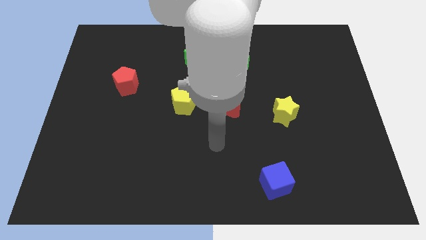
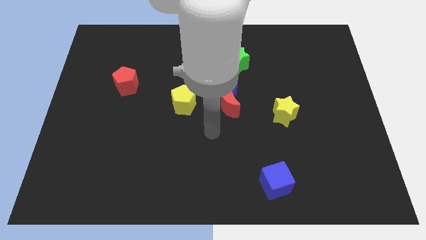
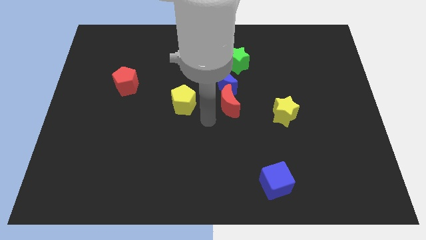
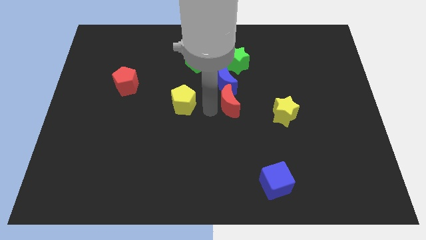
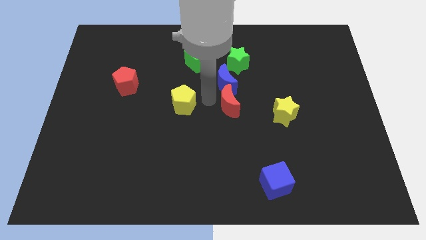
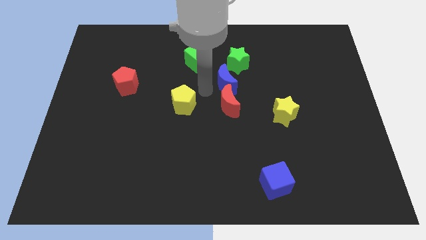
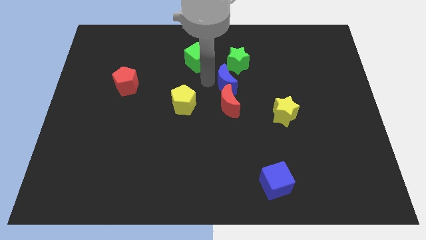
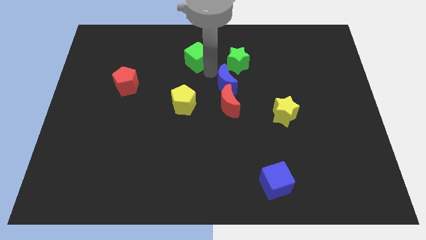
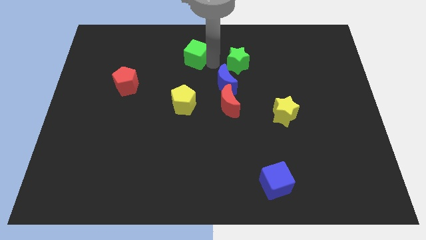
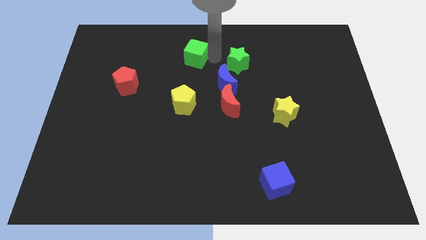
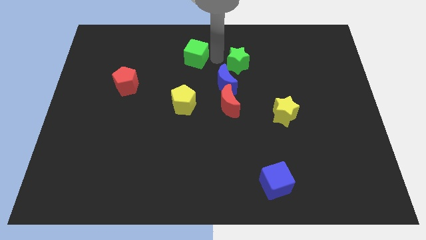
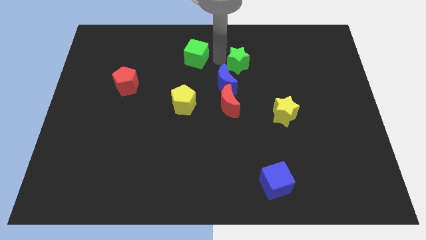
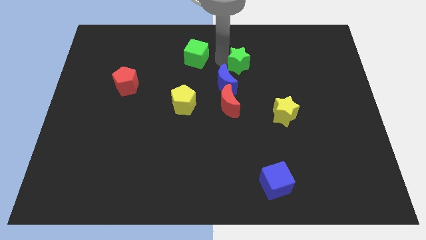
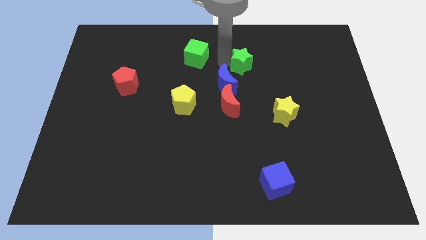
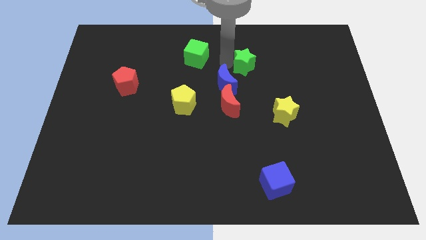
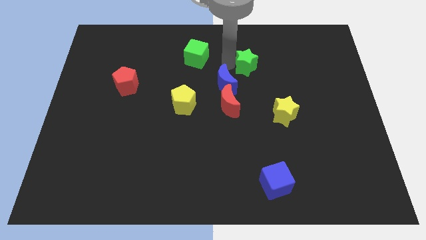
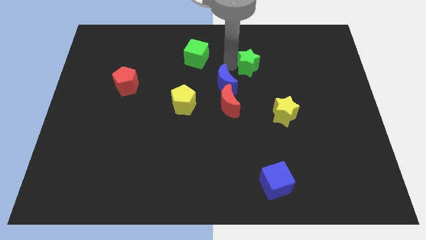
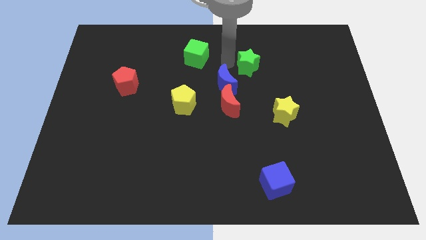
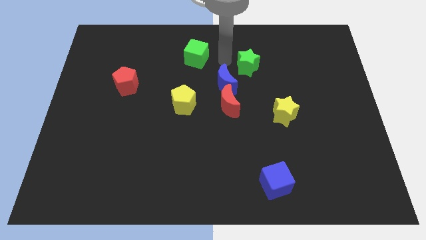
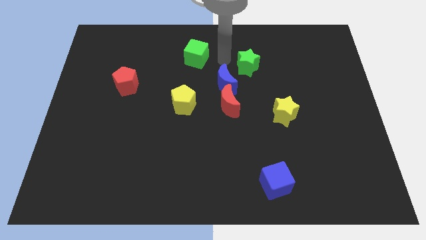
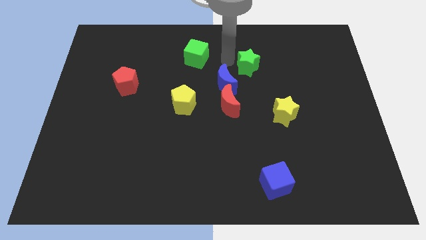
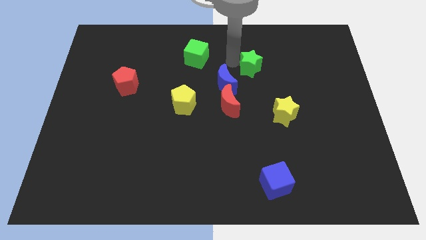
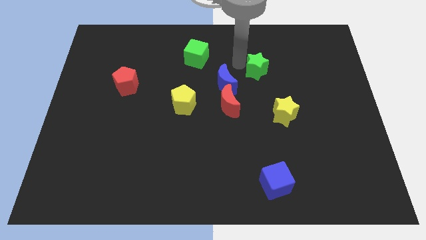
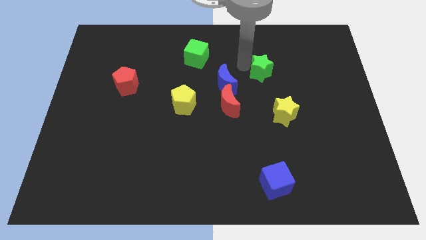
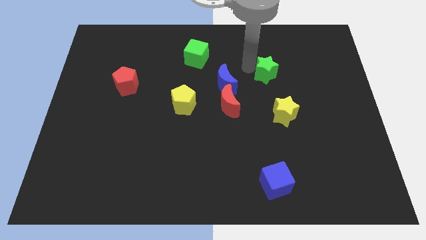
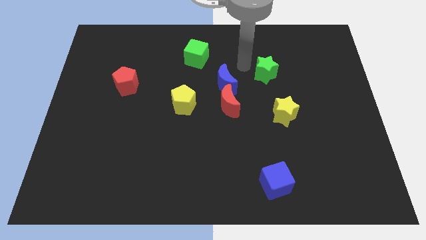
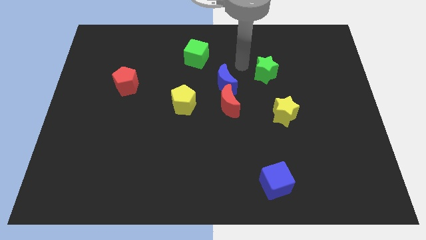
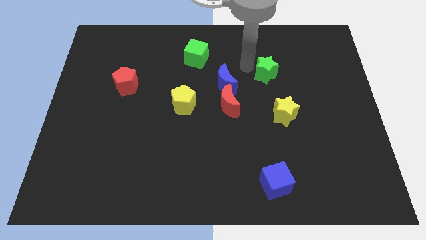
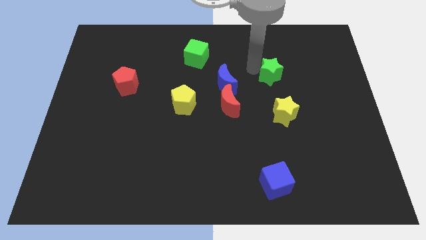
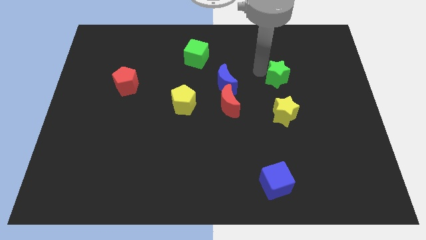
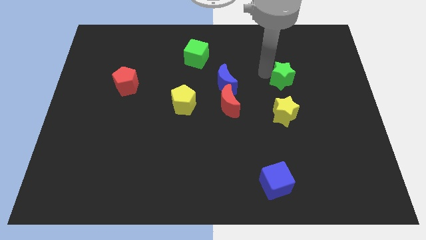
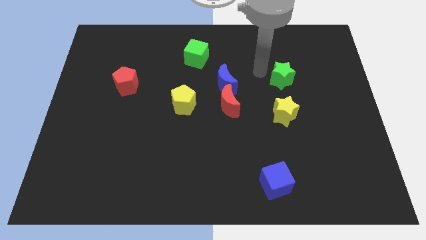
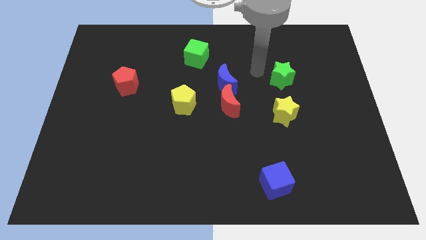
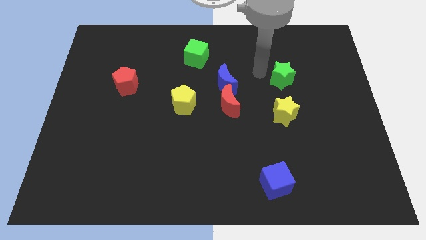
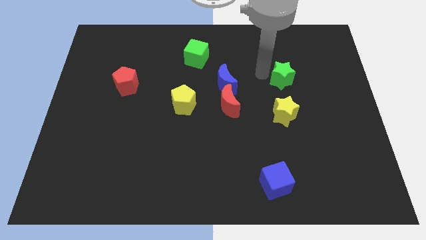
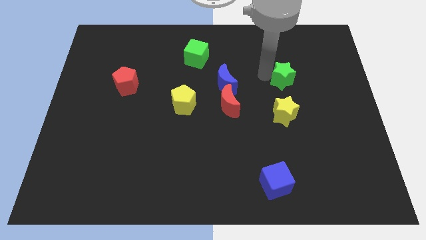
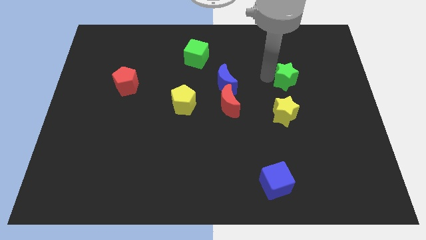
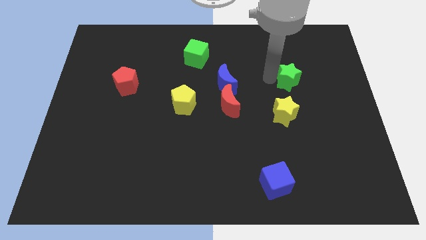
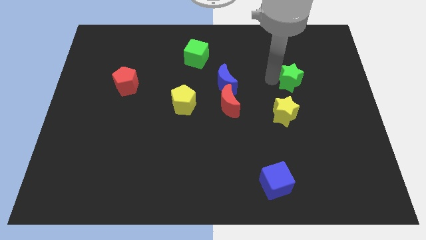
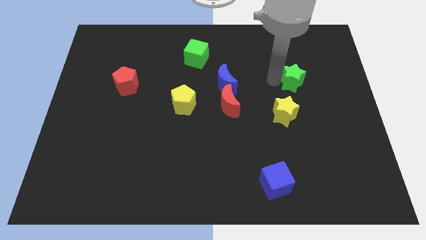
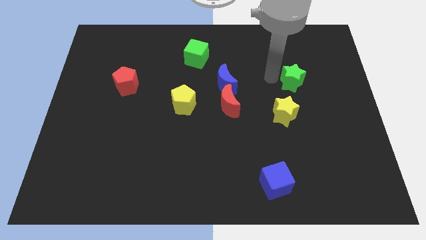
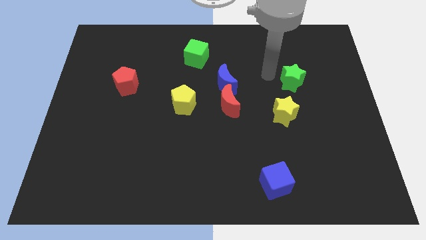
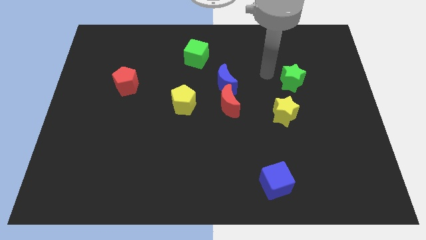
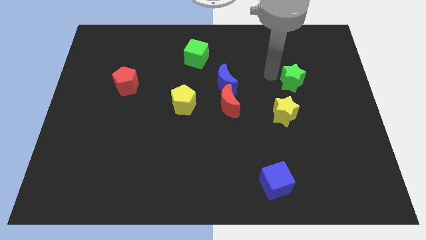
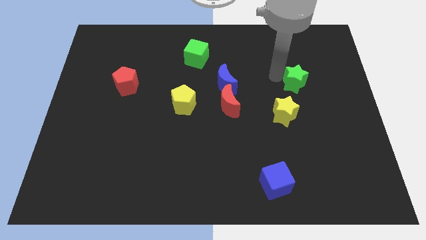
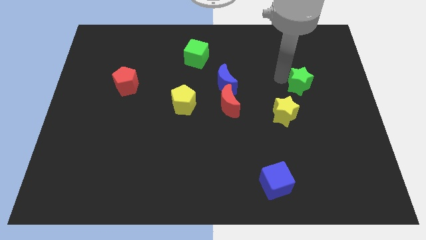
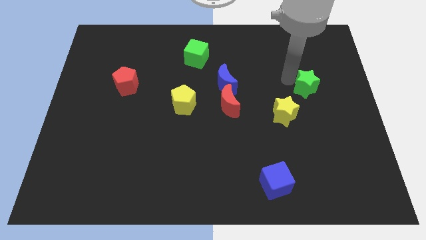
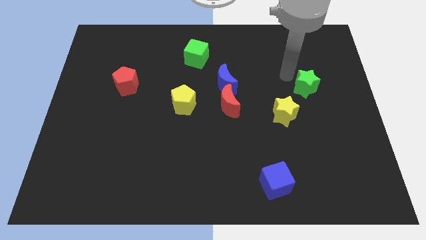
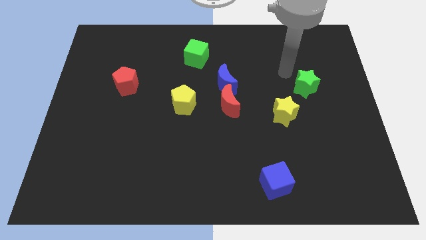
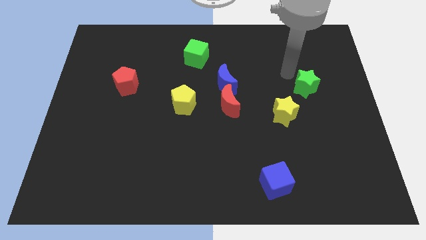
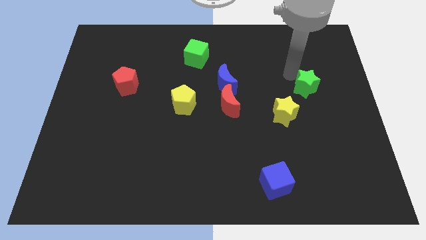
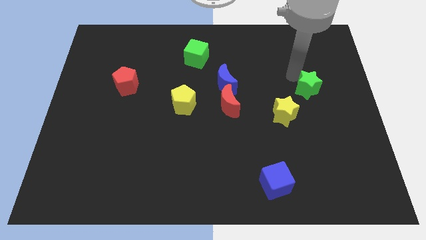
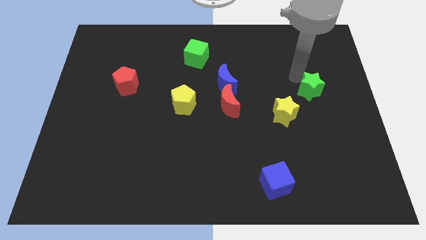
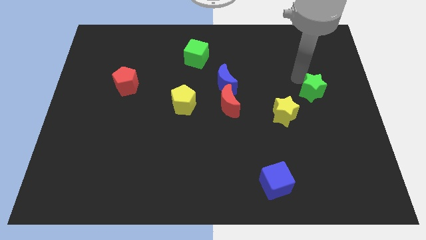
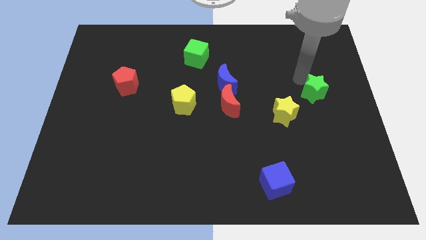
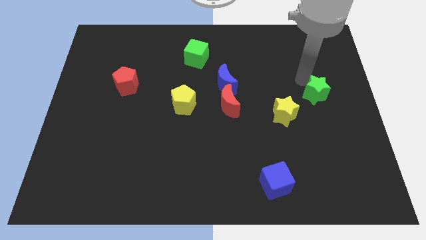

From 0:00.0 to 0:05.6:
slide the green star to the right side

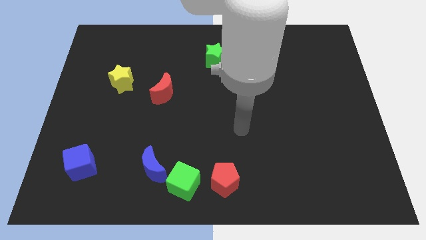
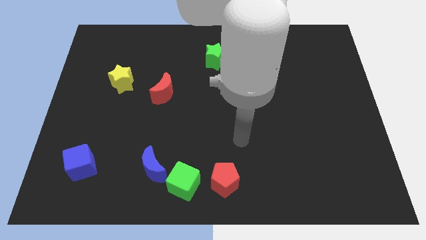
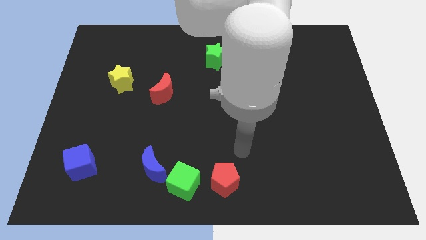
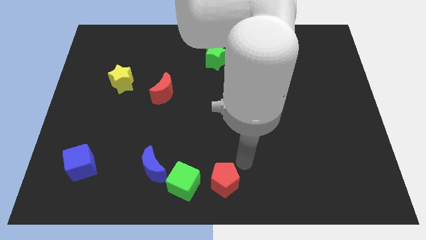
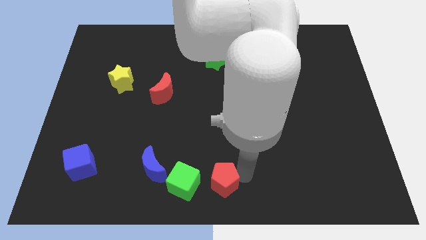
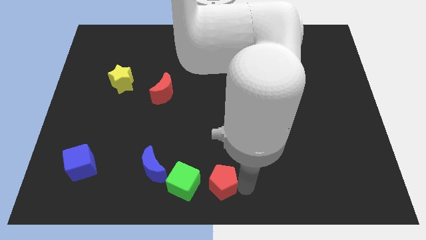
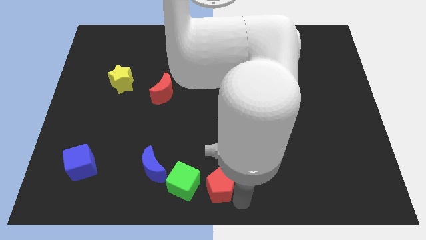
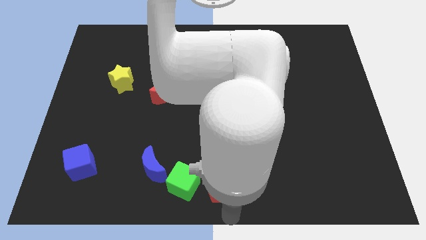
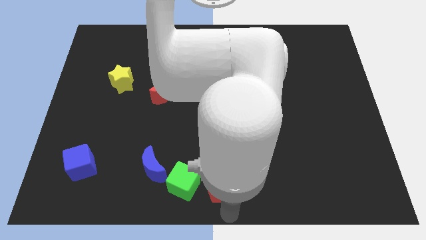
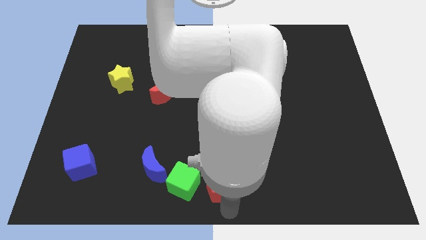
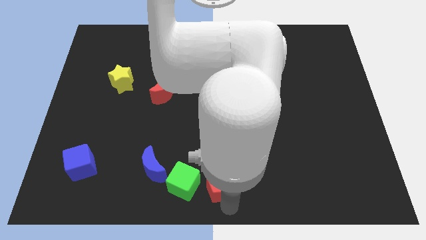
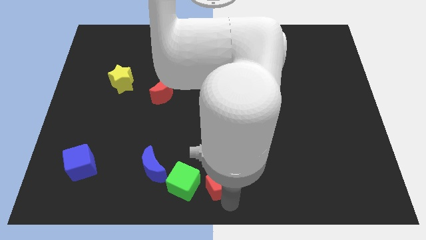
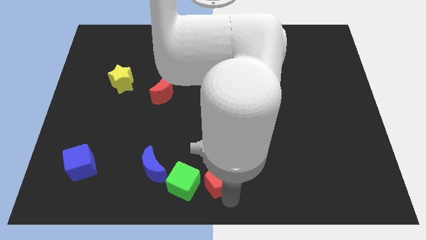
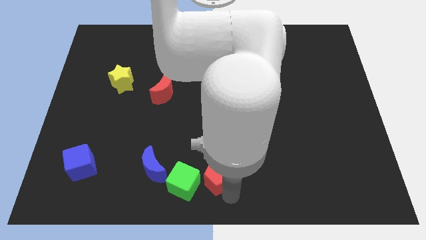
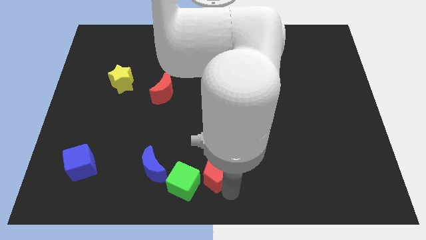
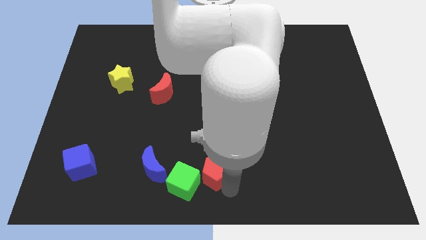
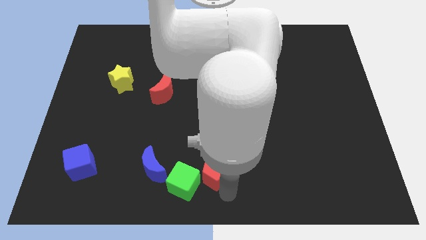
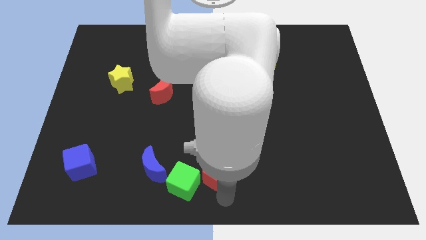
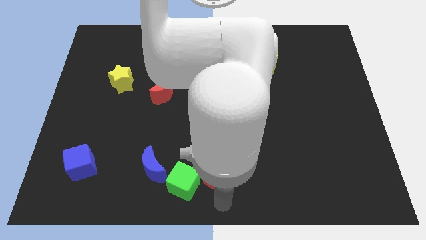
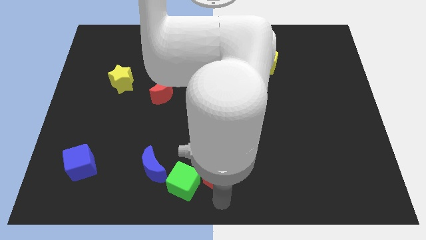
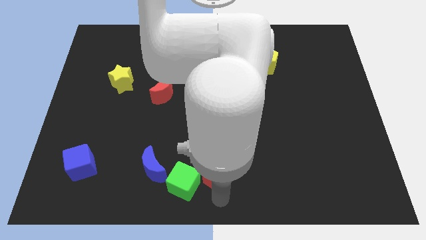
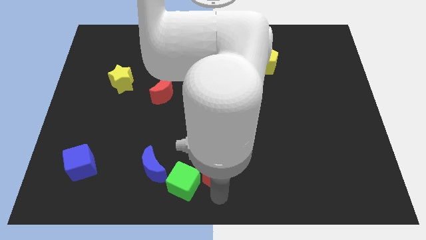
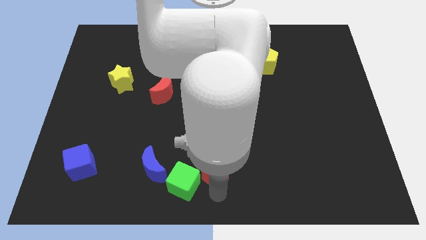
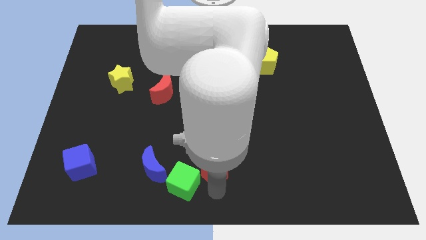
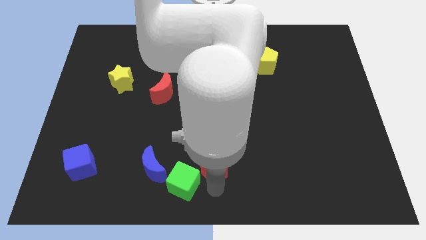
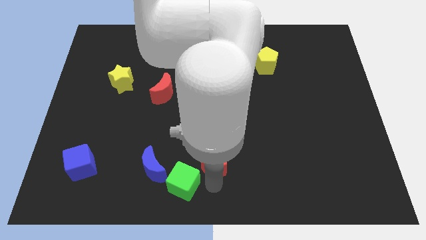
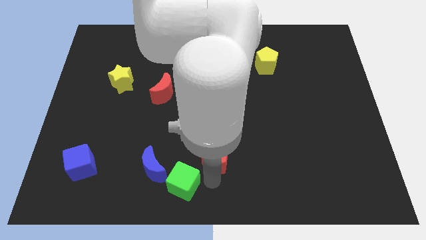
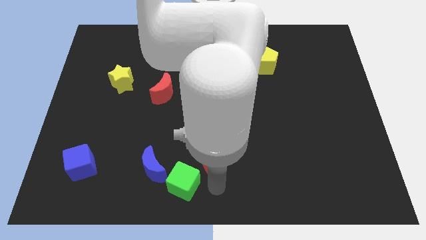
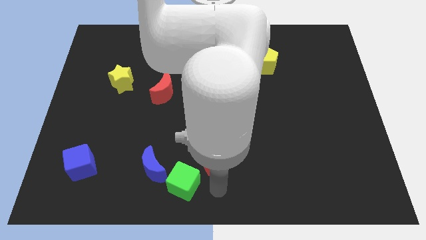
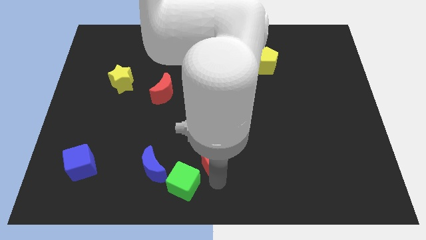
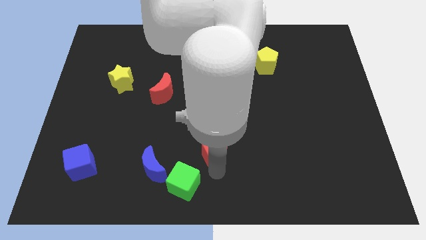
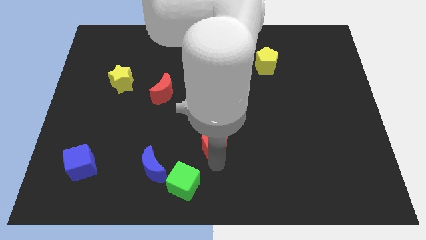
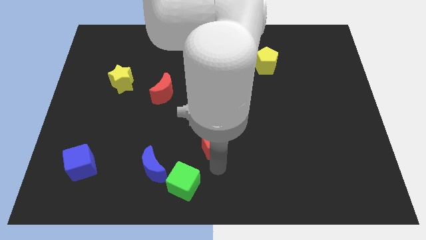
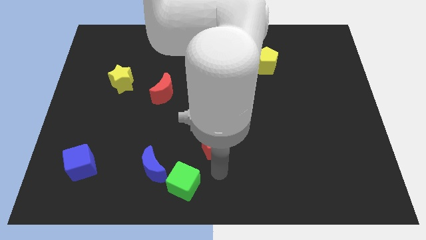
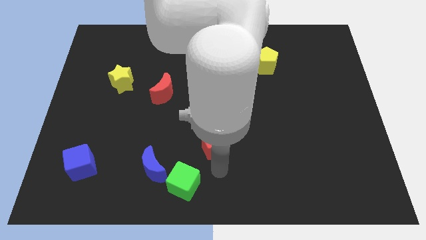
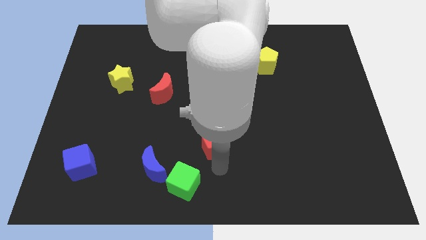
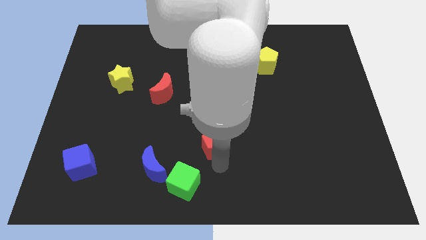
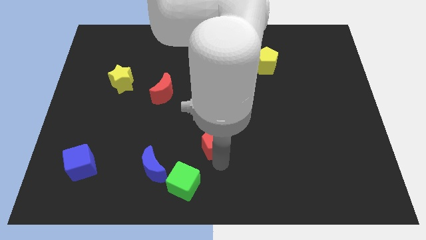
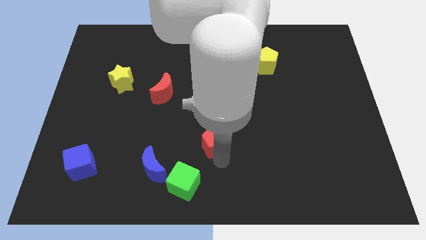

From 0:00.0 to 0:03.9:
push the red pentagon to the middle
